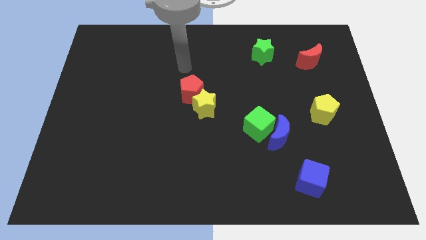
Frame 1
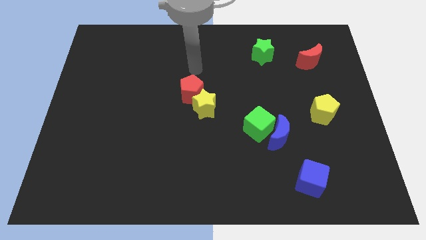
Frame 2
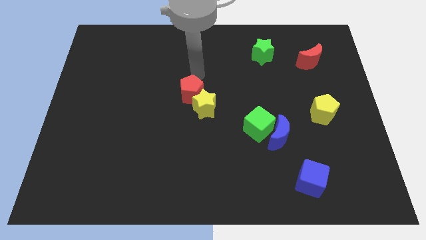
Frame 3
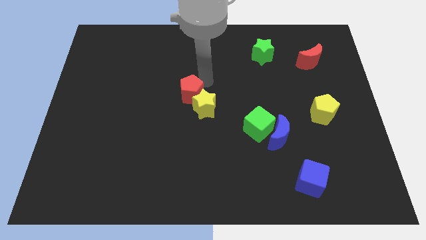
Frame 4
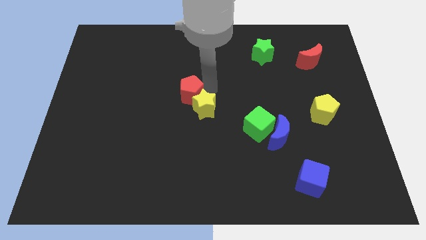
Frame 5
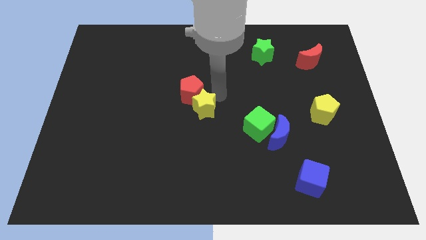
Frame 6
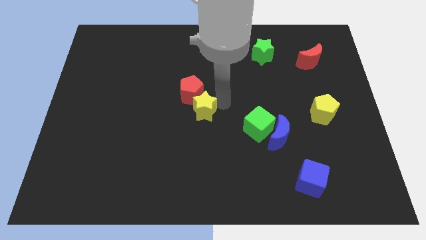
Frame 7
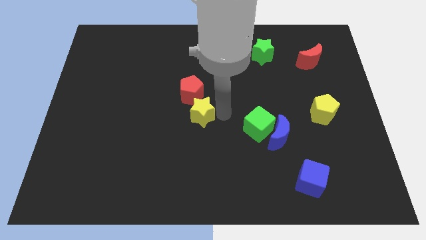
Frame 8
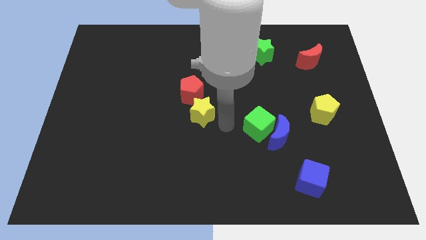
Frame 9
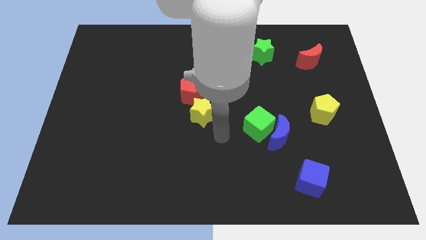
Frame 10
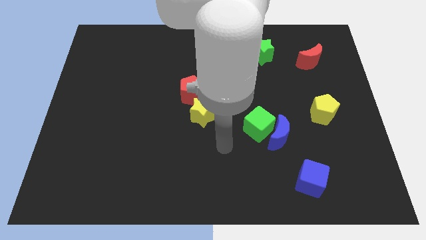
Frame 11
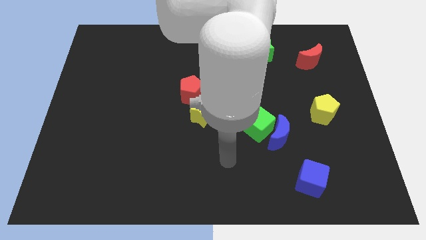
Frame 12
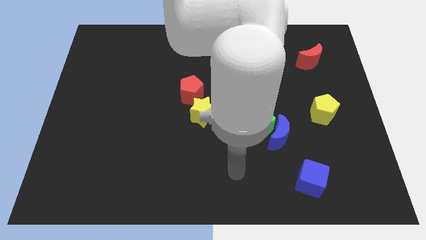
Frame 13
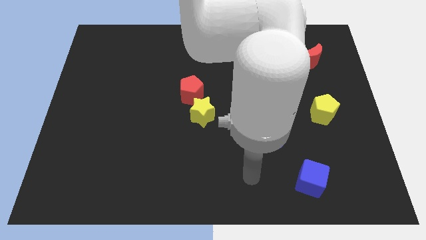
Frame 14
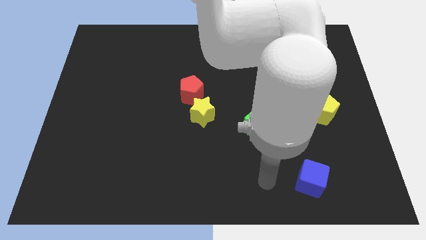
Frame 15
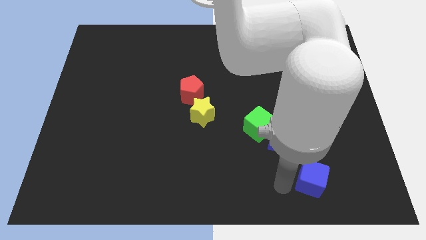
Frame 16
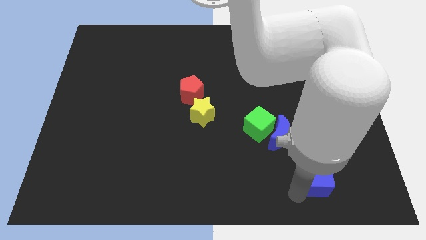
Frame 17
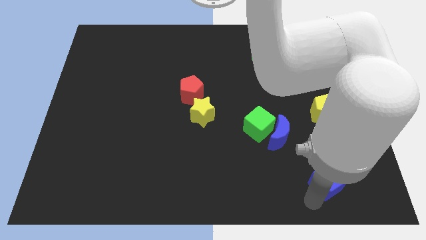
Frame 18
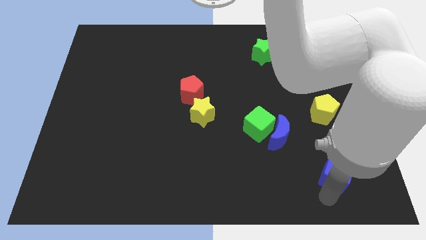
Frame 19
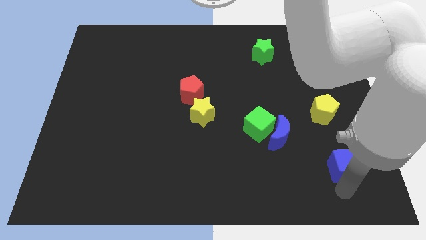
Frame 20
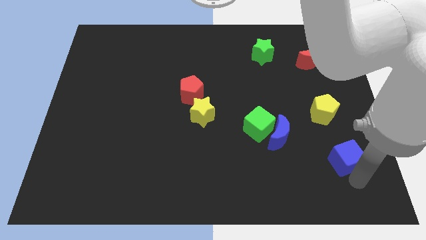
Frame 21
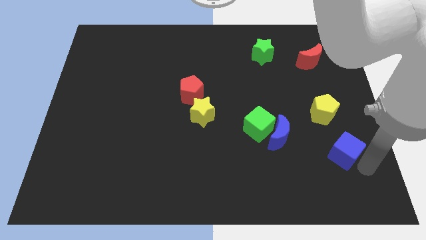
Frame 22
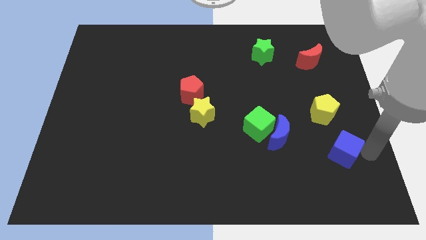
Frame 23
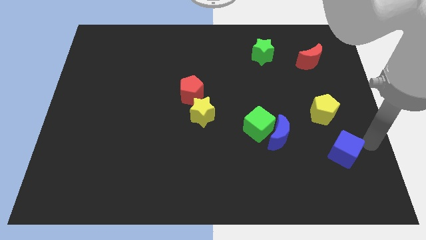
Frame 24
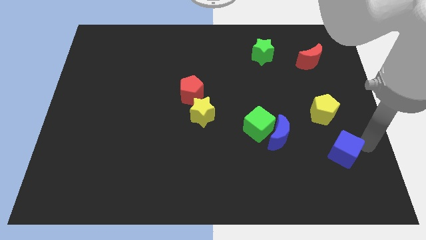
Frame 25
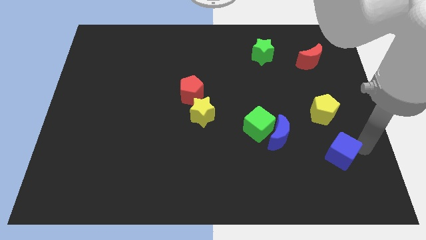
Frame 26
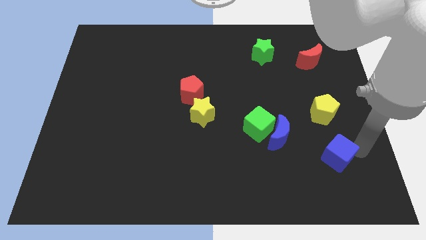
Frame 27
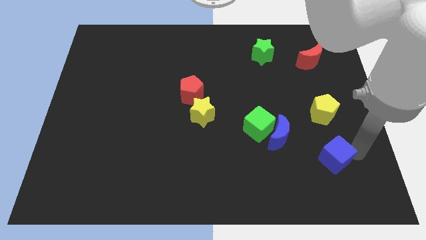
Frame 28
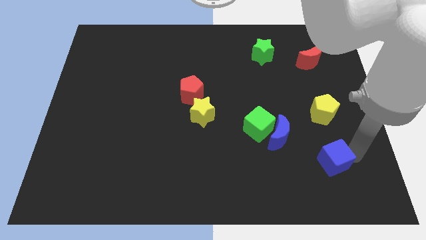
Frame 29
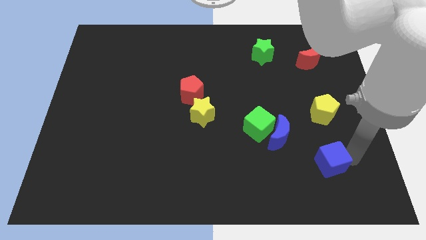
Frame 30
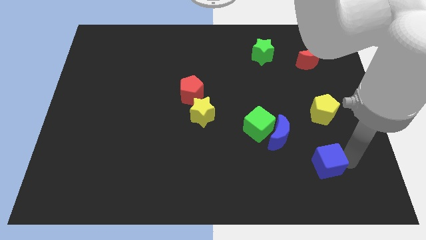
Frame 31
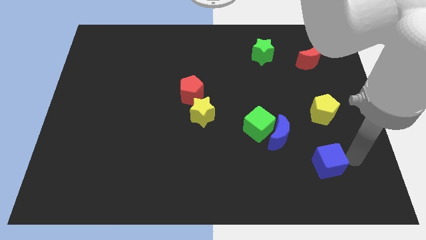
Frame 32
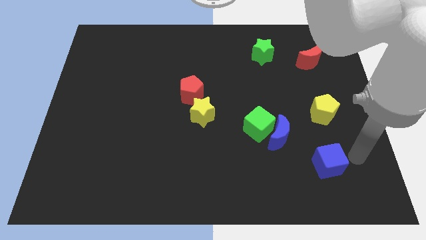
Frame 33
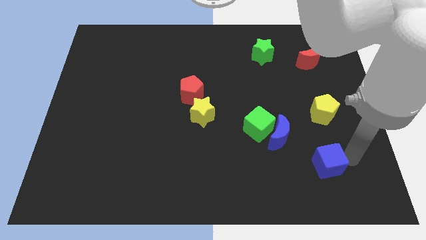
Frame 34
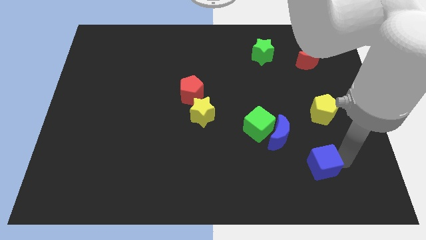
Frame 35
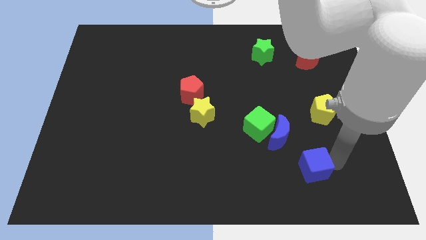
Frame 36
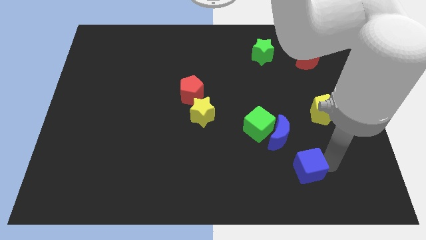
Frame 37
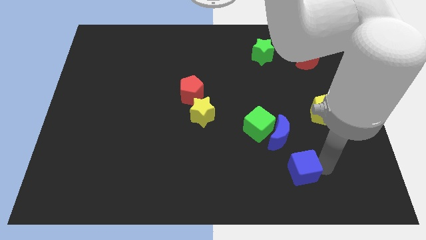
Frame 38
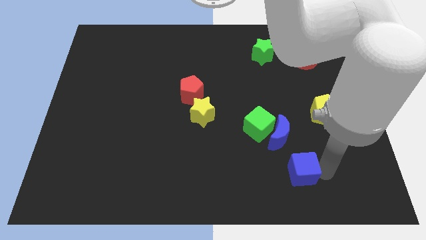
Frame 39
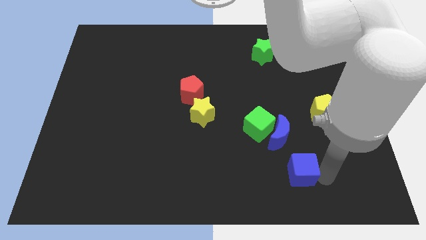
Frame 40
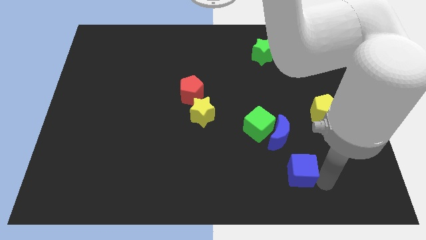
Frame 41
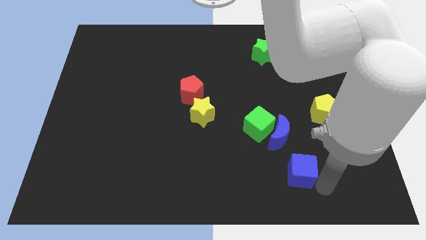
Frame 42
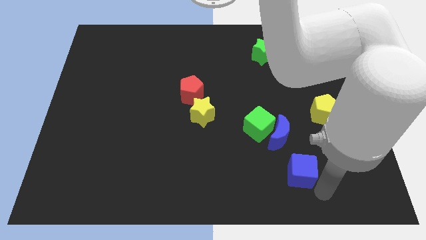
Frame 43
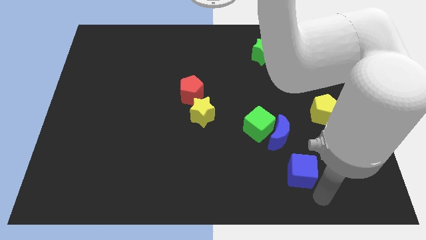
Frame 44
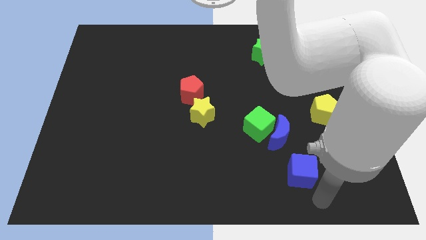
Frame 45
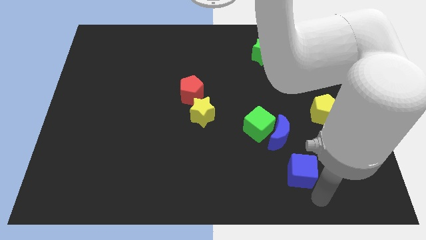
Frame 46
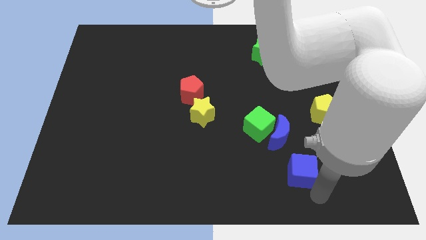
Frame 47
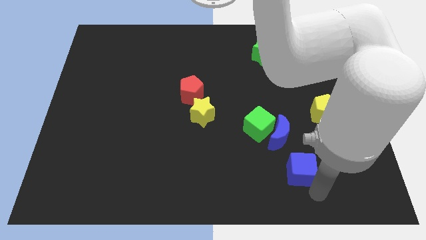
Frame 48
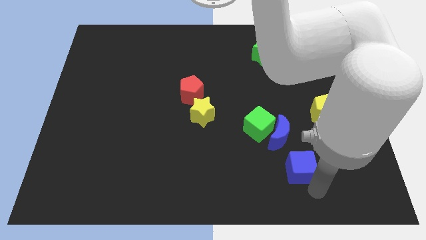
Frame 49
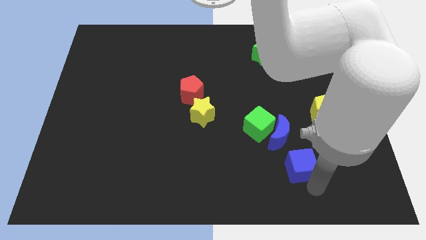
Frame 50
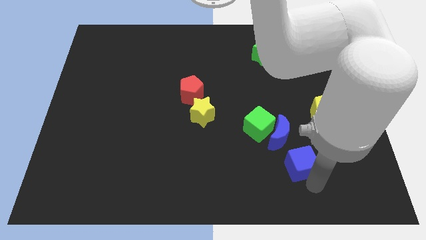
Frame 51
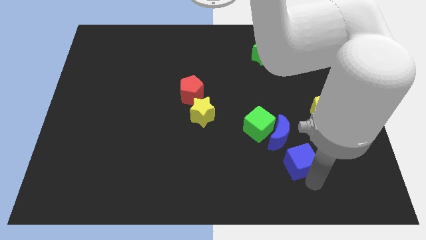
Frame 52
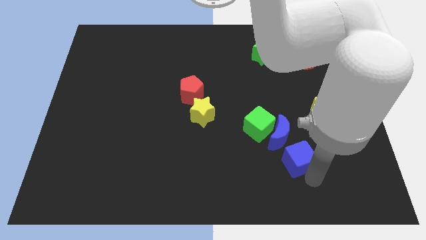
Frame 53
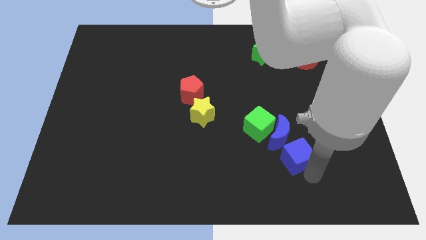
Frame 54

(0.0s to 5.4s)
put the blue cube close to the blue moon

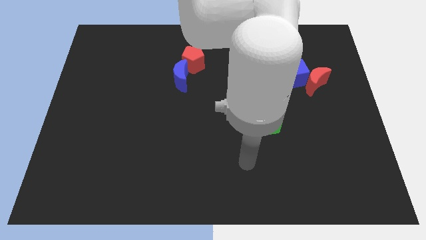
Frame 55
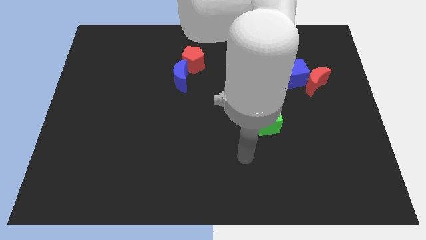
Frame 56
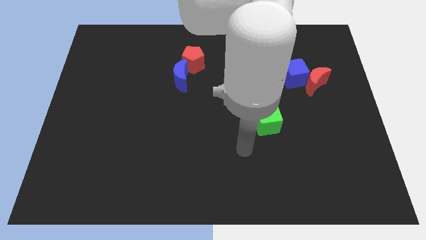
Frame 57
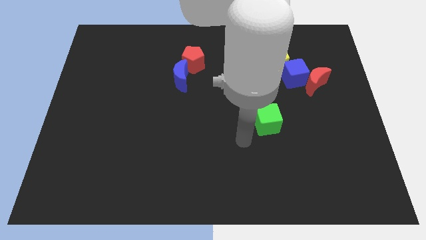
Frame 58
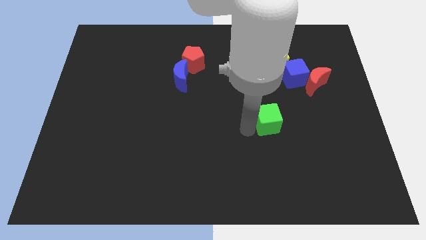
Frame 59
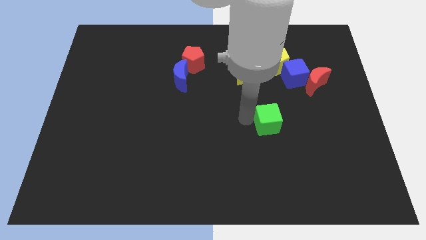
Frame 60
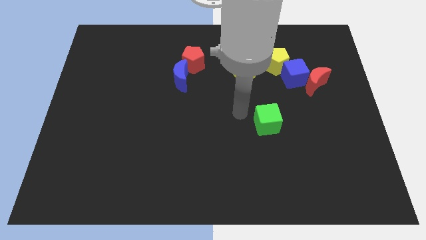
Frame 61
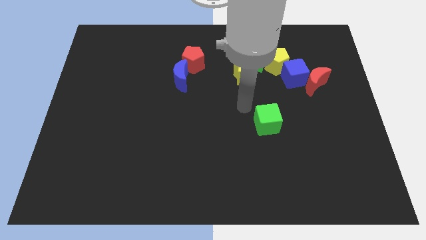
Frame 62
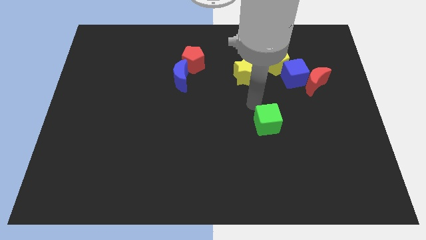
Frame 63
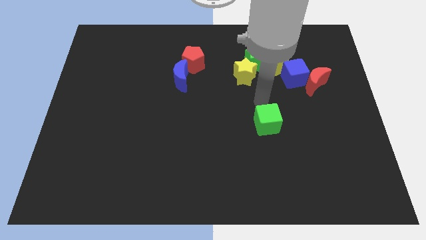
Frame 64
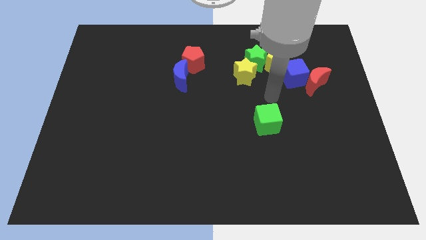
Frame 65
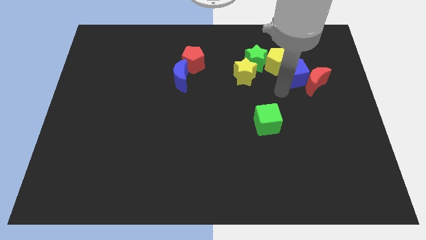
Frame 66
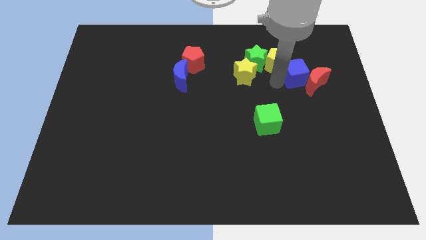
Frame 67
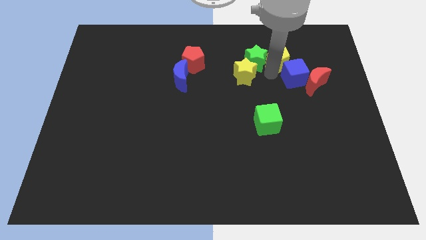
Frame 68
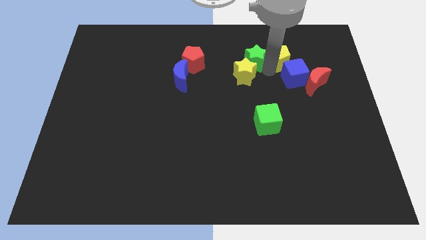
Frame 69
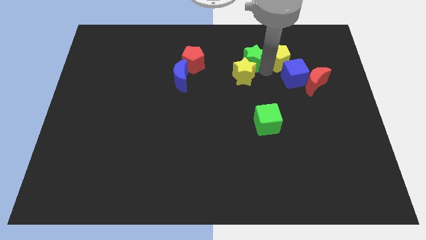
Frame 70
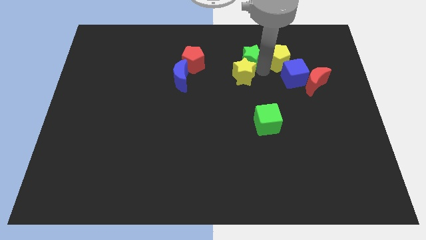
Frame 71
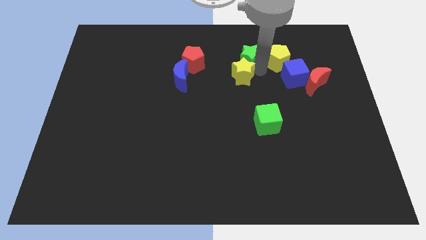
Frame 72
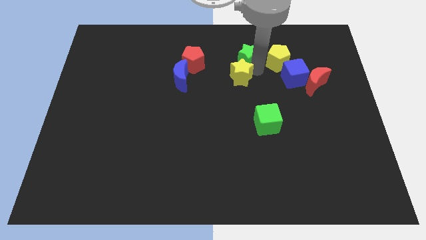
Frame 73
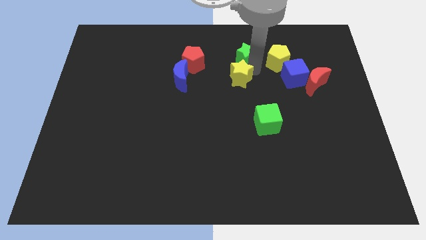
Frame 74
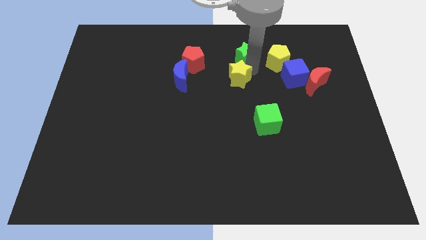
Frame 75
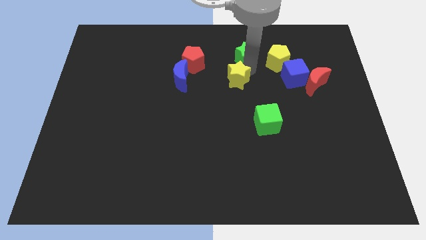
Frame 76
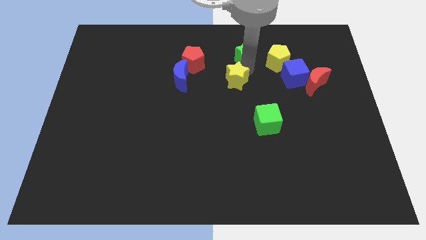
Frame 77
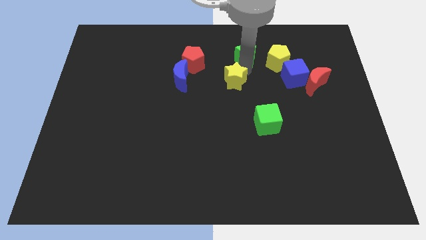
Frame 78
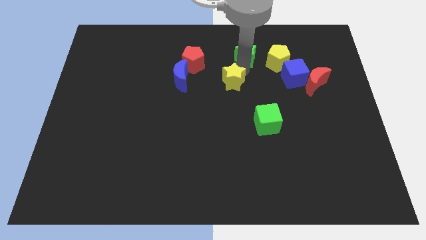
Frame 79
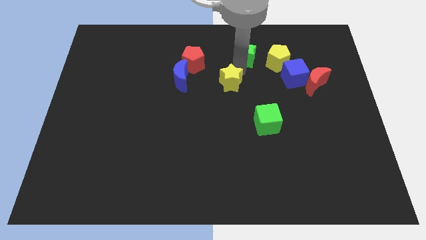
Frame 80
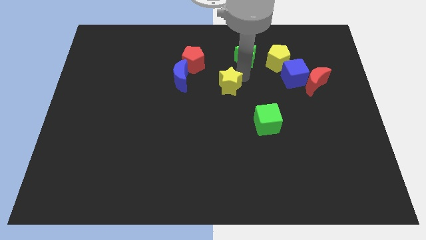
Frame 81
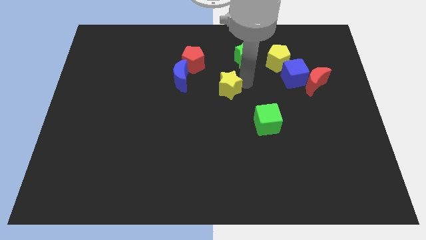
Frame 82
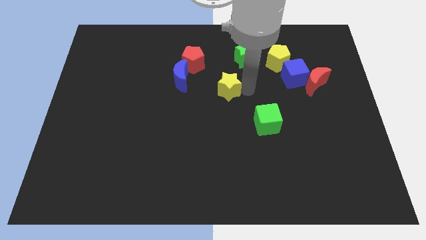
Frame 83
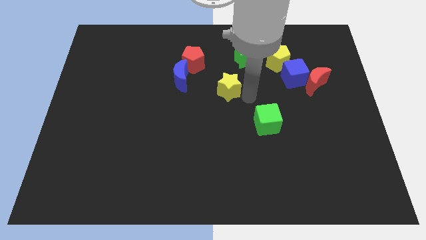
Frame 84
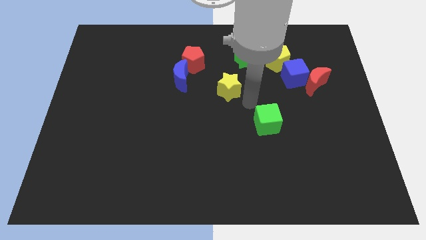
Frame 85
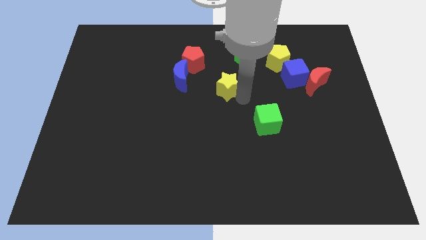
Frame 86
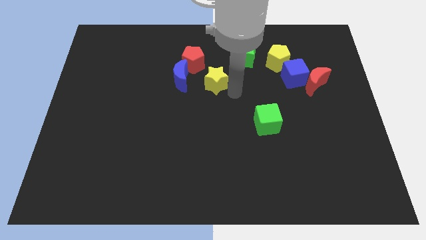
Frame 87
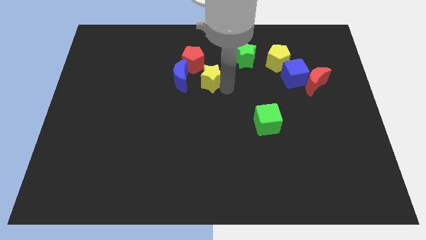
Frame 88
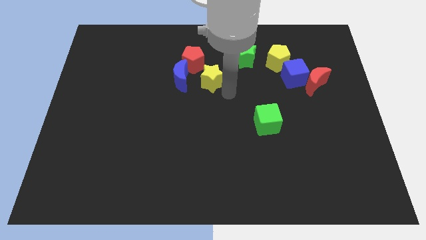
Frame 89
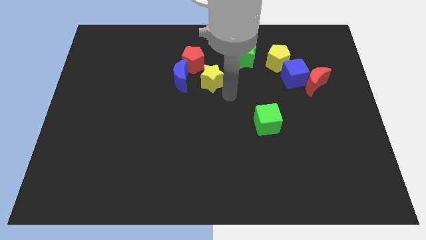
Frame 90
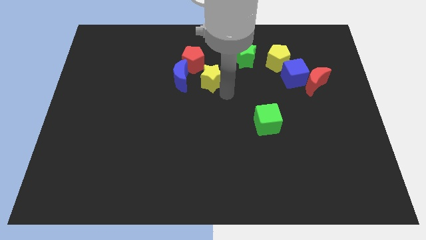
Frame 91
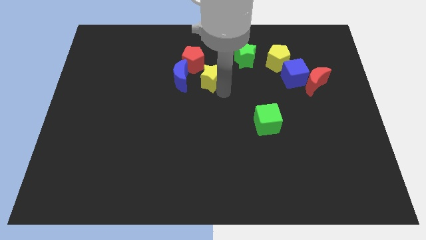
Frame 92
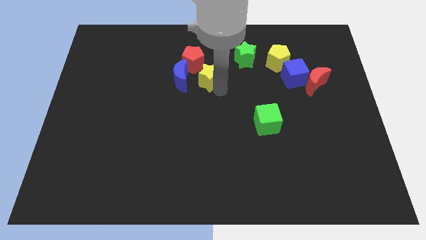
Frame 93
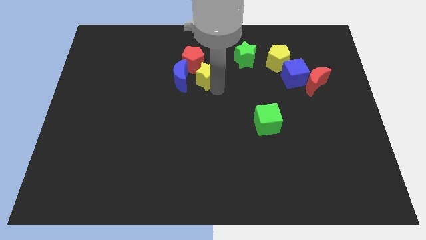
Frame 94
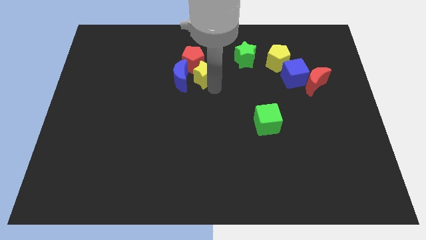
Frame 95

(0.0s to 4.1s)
slide the yellow star towards the red pentagon
